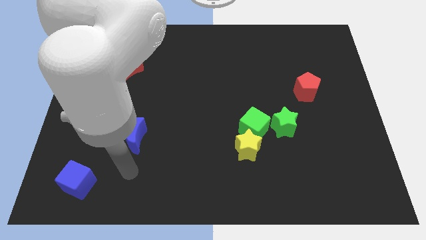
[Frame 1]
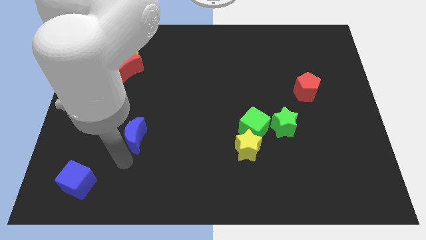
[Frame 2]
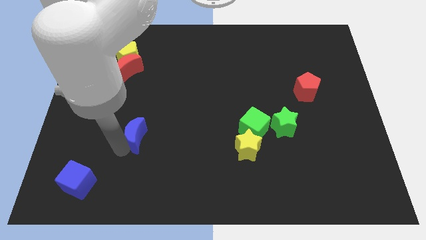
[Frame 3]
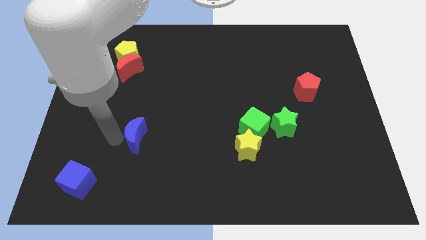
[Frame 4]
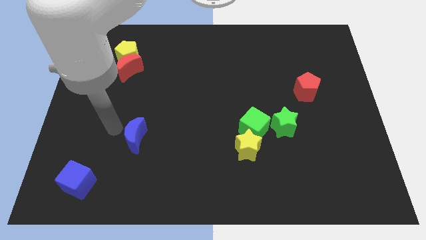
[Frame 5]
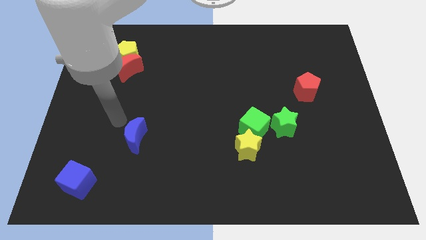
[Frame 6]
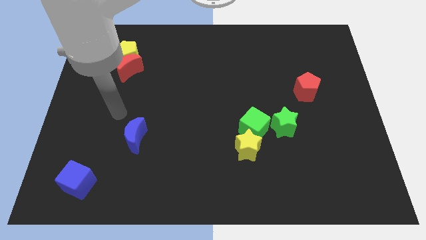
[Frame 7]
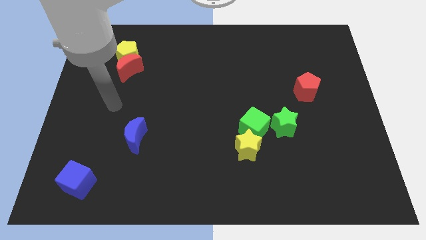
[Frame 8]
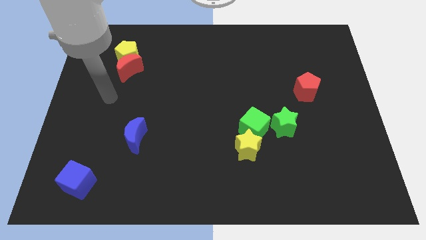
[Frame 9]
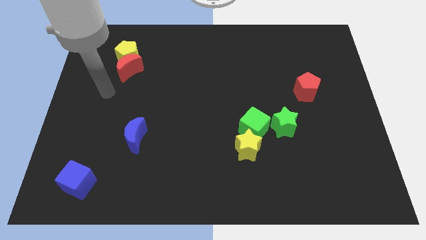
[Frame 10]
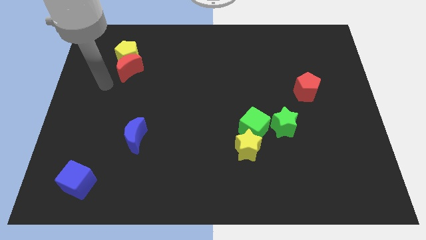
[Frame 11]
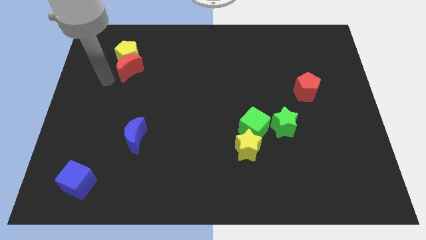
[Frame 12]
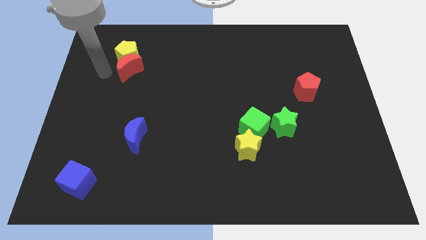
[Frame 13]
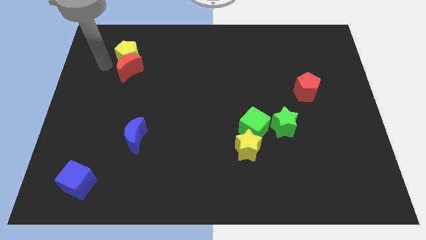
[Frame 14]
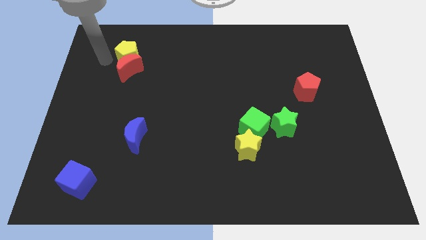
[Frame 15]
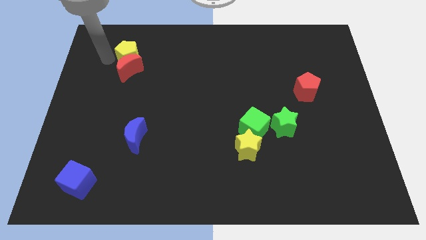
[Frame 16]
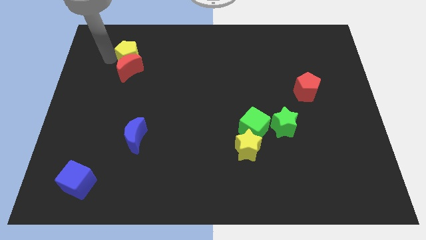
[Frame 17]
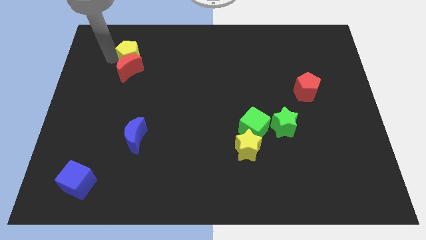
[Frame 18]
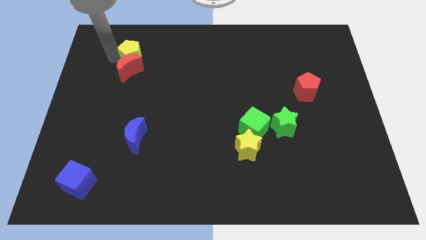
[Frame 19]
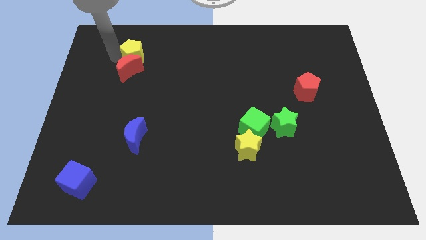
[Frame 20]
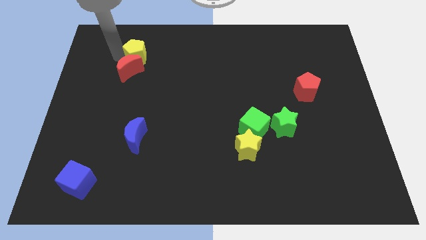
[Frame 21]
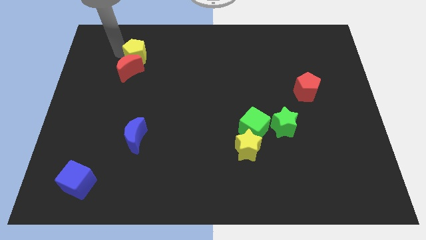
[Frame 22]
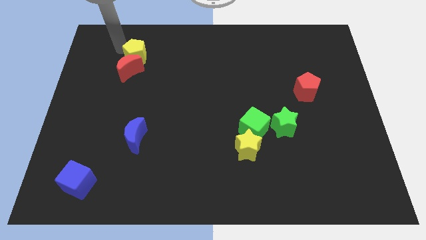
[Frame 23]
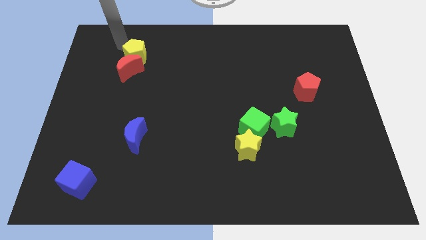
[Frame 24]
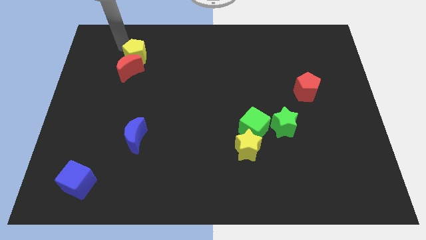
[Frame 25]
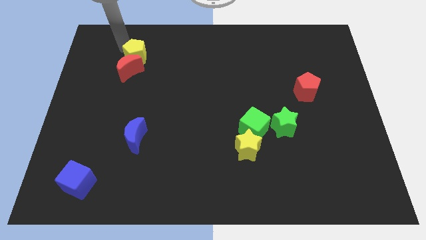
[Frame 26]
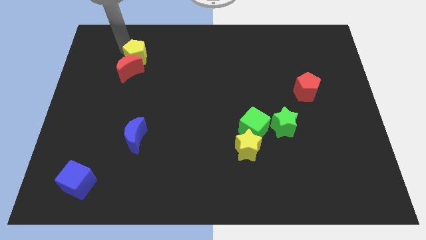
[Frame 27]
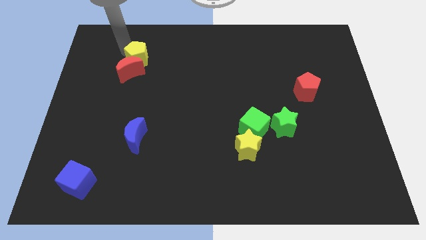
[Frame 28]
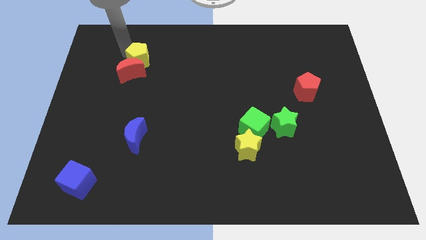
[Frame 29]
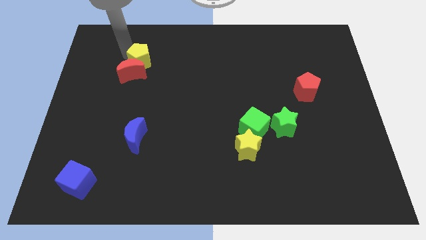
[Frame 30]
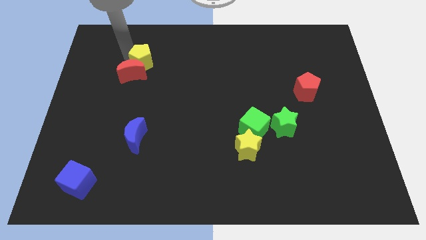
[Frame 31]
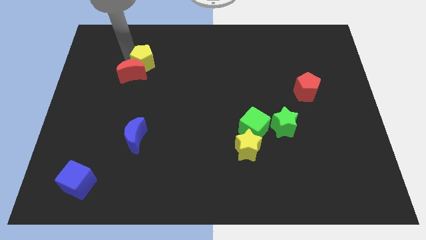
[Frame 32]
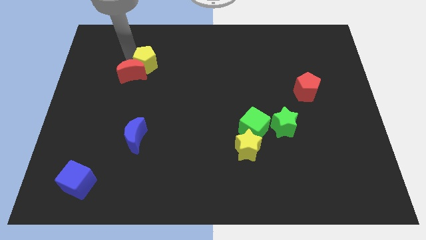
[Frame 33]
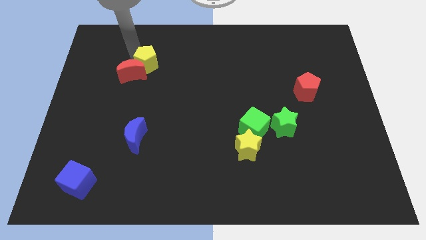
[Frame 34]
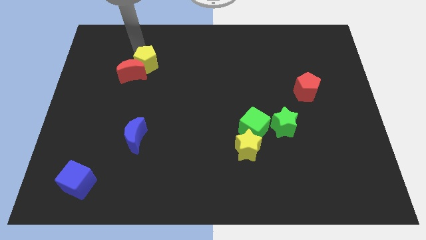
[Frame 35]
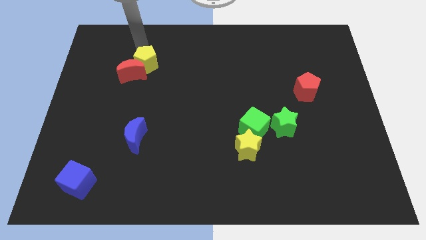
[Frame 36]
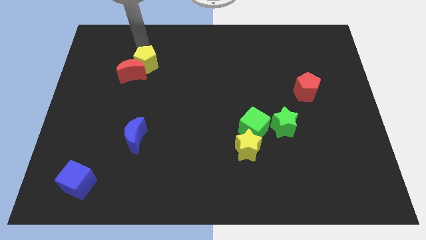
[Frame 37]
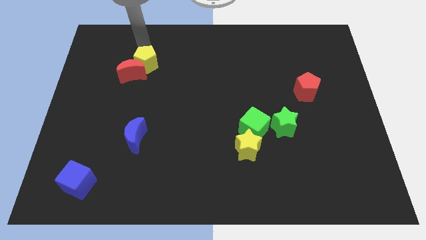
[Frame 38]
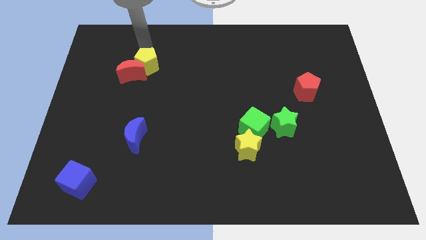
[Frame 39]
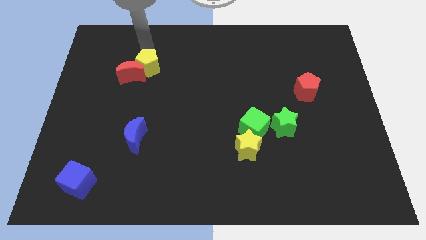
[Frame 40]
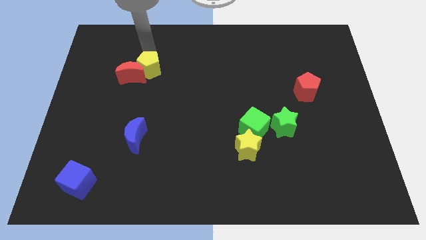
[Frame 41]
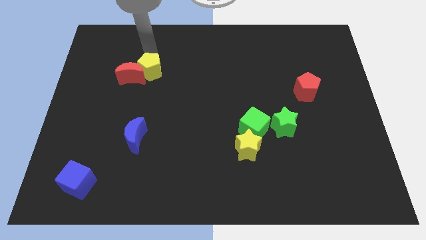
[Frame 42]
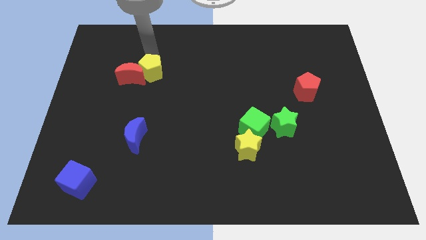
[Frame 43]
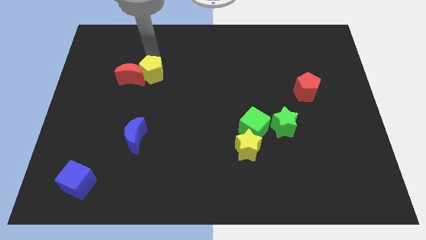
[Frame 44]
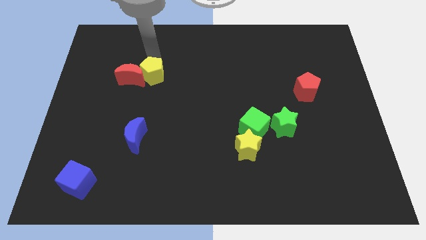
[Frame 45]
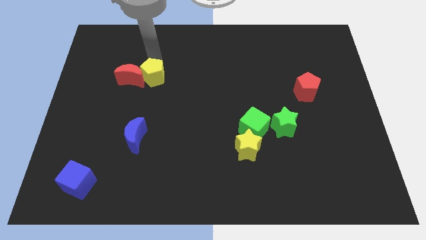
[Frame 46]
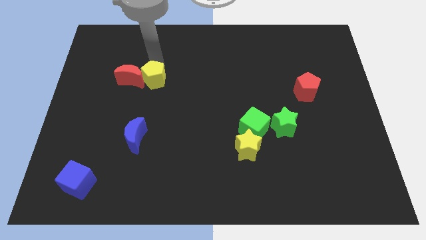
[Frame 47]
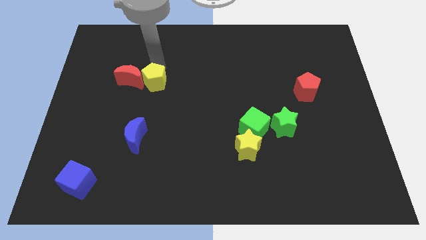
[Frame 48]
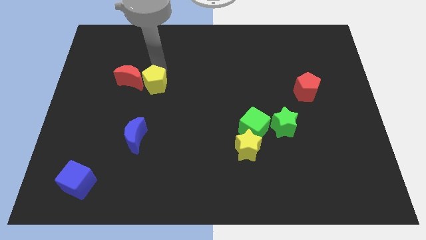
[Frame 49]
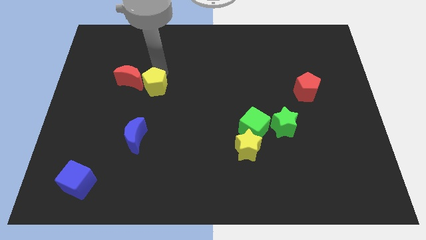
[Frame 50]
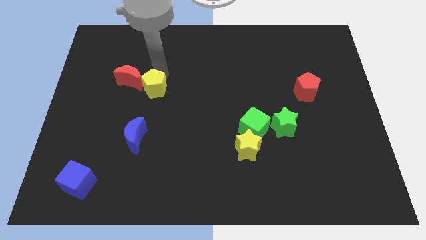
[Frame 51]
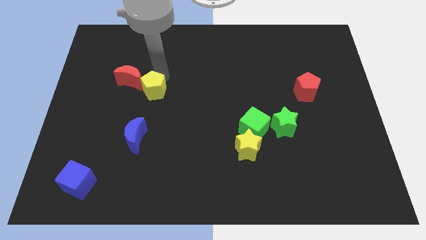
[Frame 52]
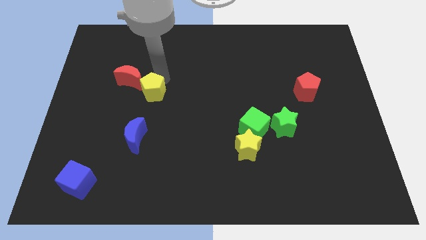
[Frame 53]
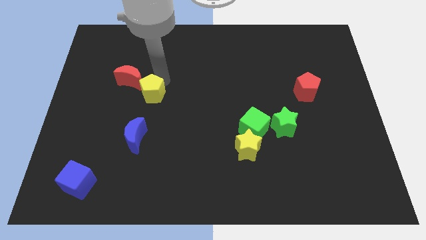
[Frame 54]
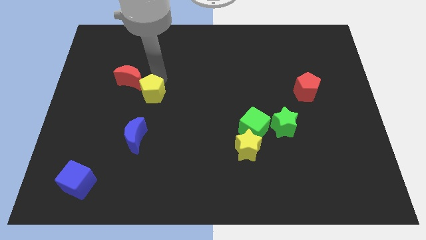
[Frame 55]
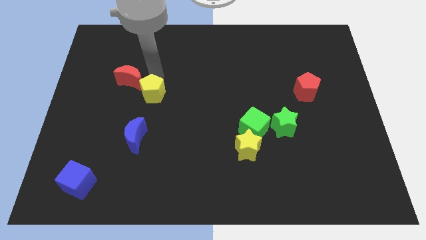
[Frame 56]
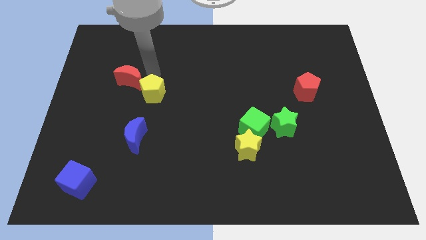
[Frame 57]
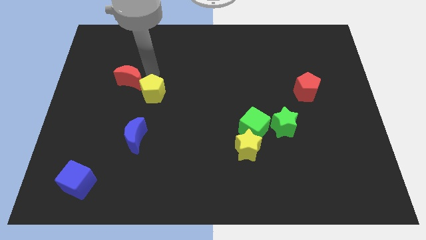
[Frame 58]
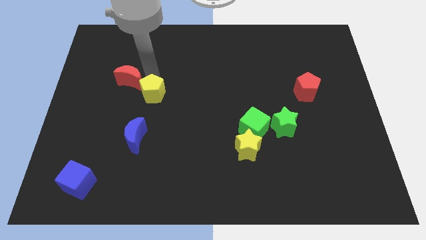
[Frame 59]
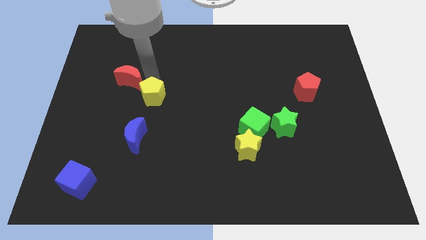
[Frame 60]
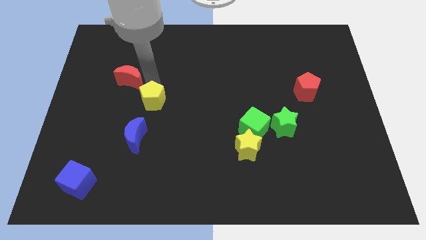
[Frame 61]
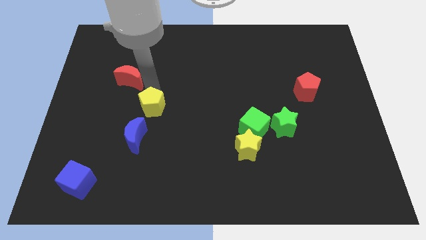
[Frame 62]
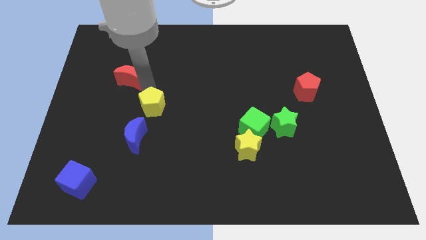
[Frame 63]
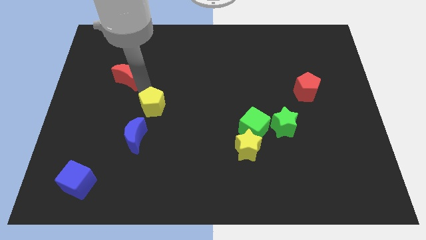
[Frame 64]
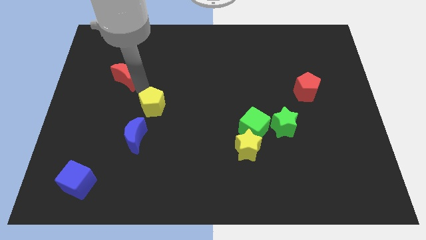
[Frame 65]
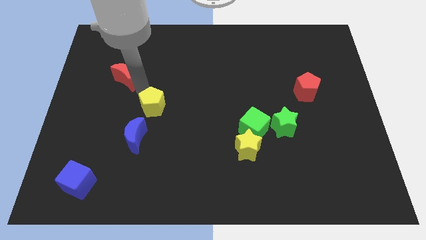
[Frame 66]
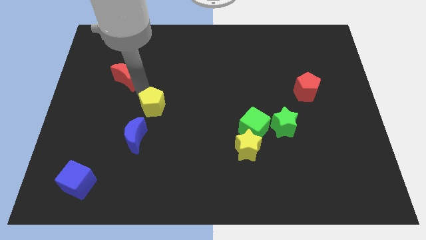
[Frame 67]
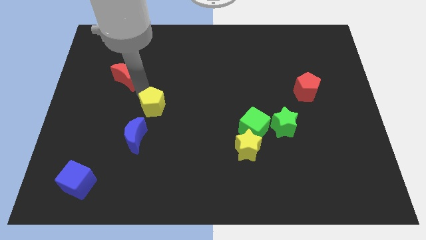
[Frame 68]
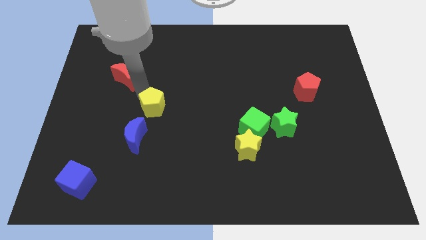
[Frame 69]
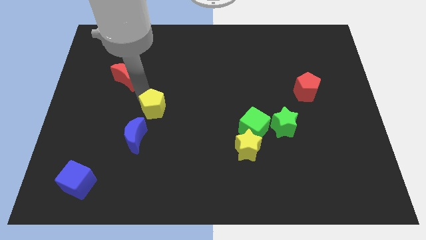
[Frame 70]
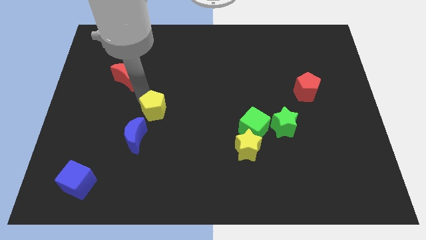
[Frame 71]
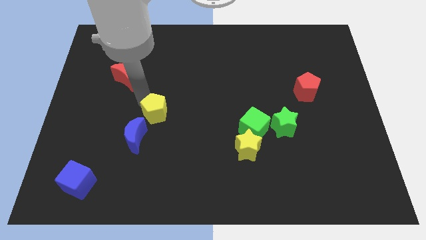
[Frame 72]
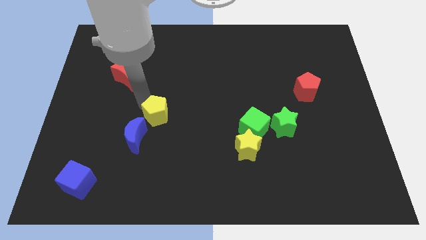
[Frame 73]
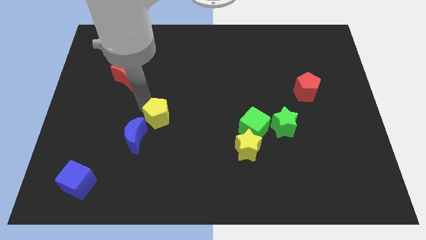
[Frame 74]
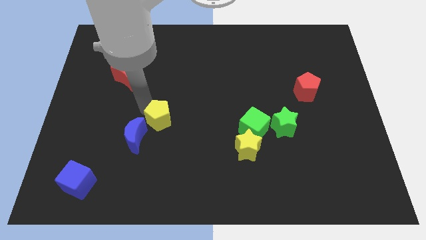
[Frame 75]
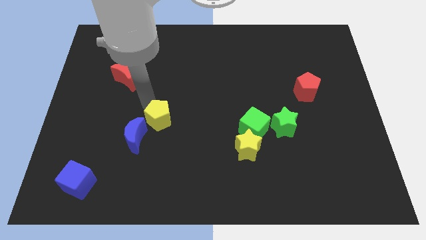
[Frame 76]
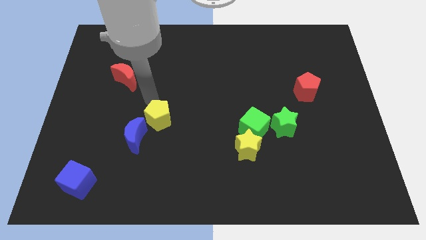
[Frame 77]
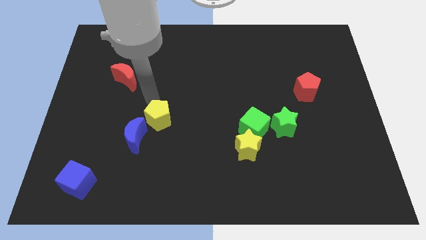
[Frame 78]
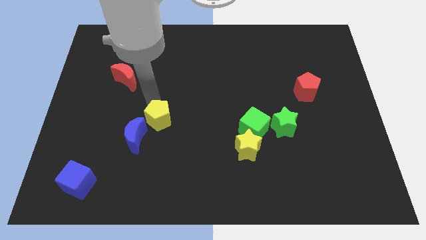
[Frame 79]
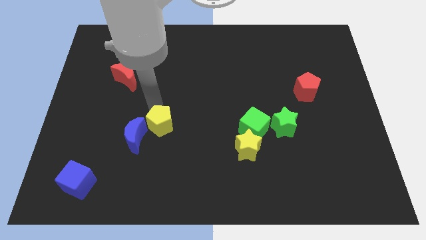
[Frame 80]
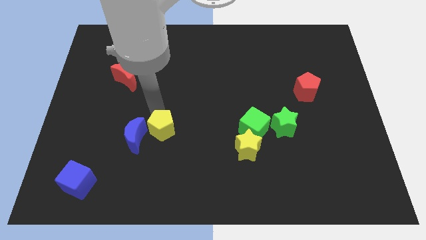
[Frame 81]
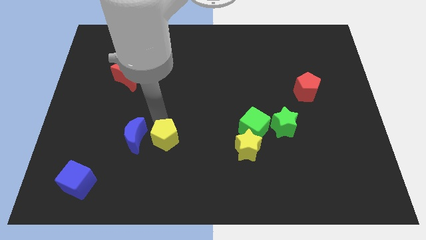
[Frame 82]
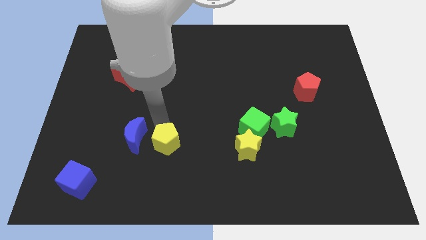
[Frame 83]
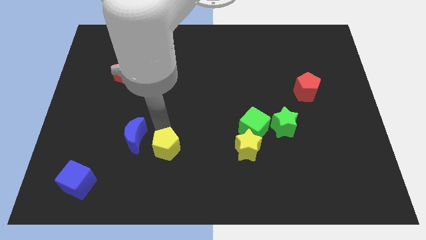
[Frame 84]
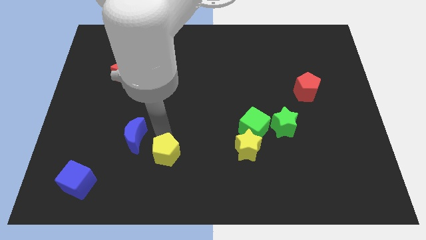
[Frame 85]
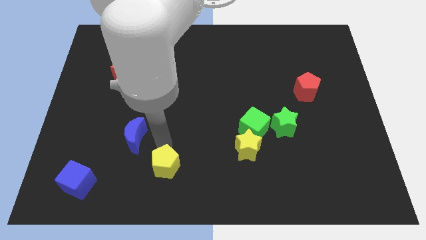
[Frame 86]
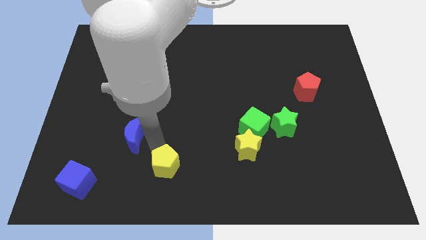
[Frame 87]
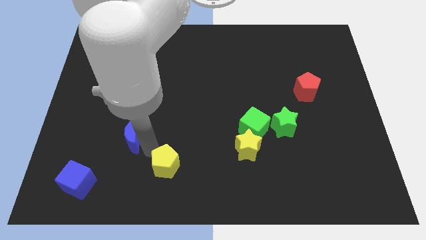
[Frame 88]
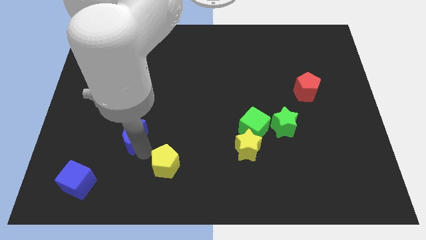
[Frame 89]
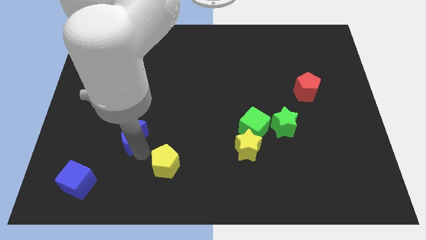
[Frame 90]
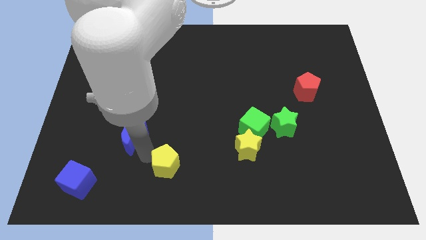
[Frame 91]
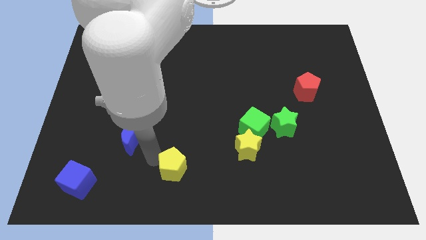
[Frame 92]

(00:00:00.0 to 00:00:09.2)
put the yellow pentagon to the bottom side
